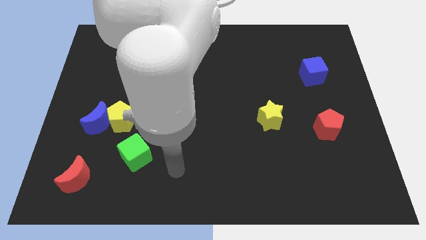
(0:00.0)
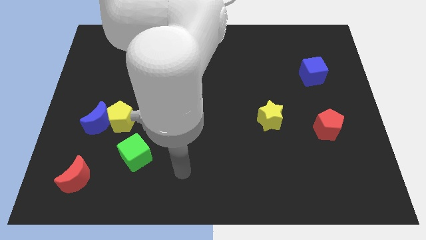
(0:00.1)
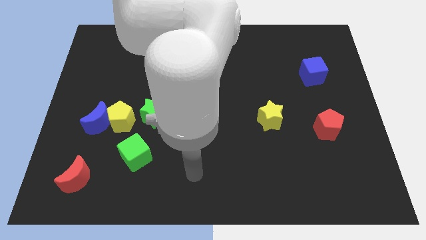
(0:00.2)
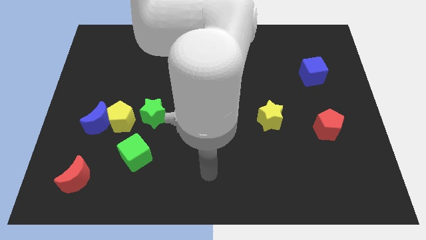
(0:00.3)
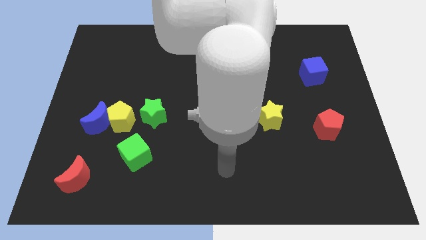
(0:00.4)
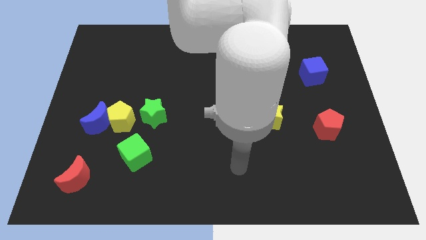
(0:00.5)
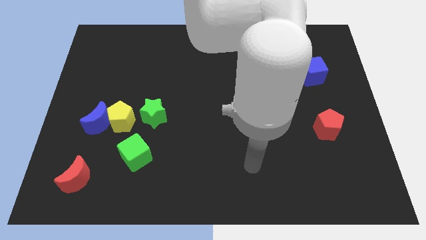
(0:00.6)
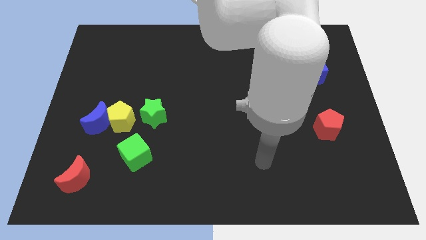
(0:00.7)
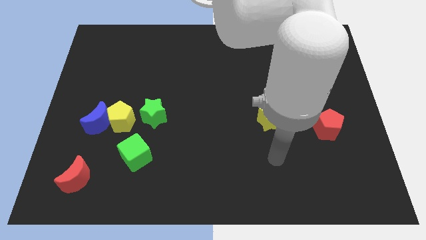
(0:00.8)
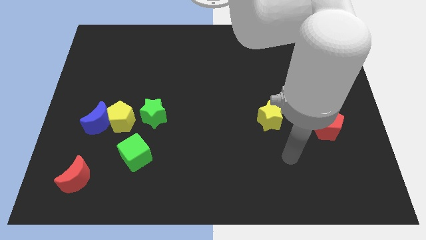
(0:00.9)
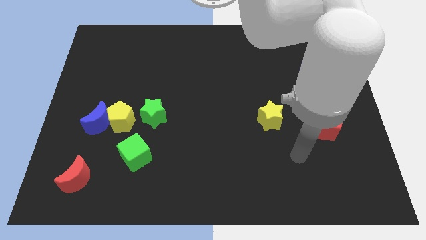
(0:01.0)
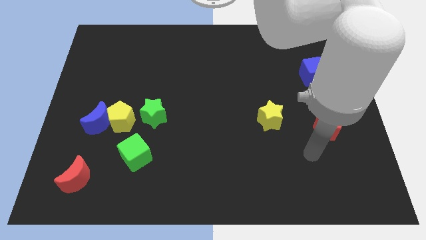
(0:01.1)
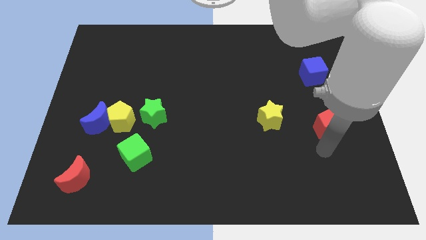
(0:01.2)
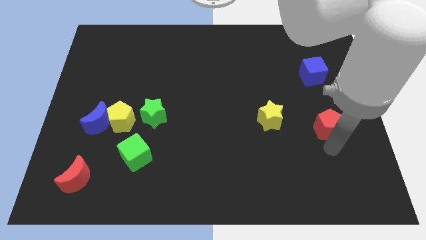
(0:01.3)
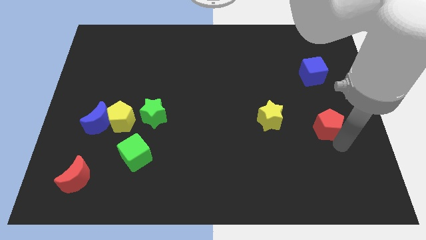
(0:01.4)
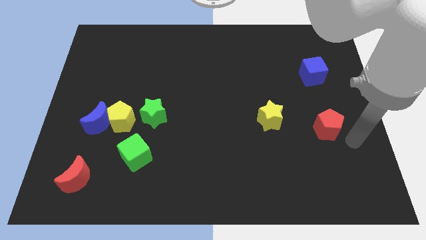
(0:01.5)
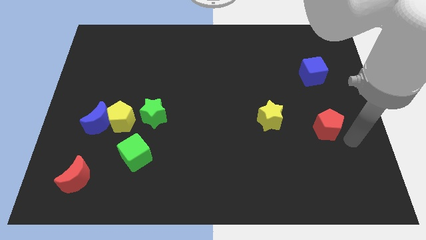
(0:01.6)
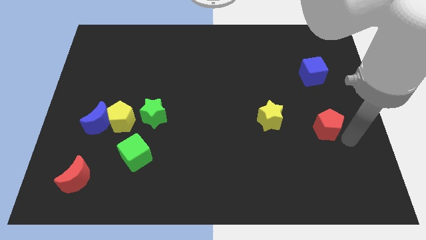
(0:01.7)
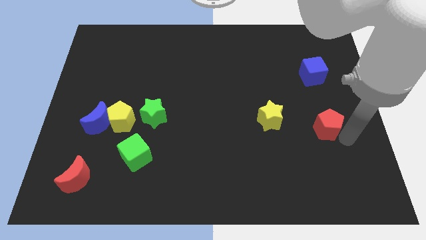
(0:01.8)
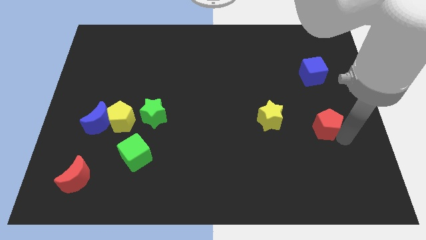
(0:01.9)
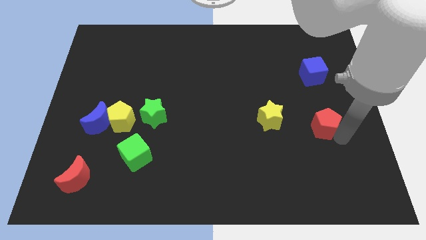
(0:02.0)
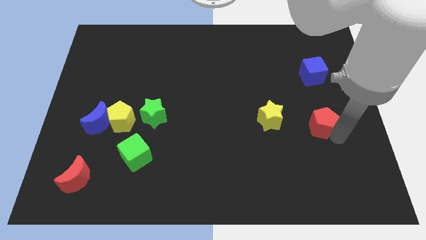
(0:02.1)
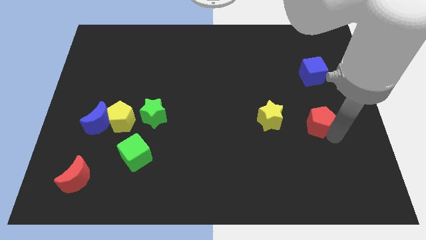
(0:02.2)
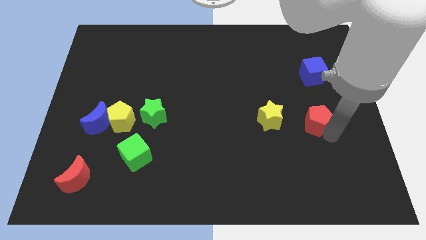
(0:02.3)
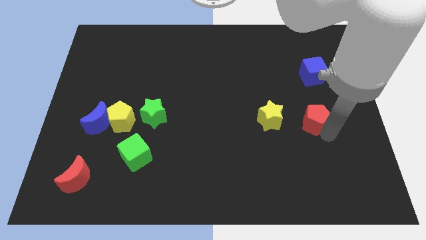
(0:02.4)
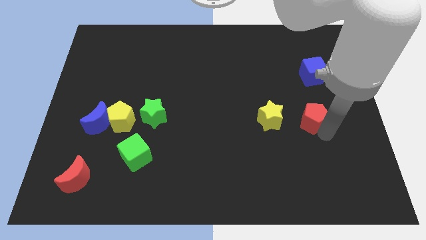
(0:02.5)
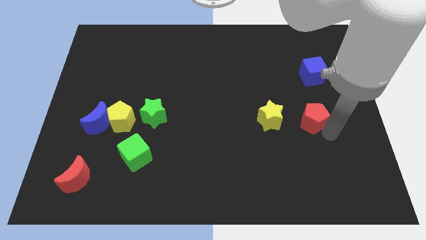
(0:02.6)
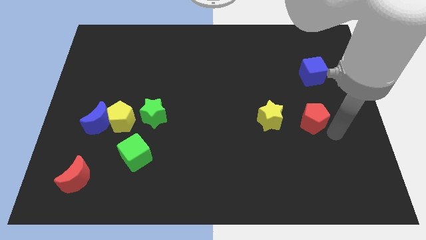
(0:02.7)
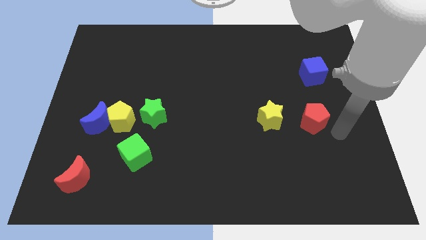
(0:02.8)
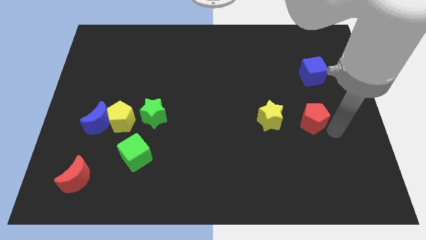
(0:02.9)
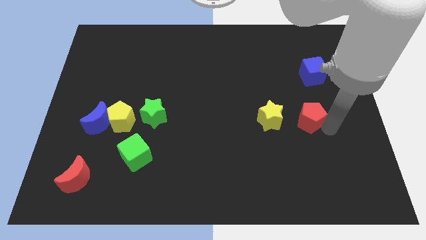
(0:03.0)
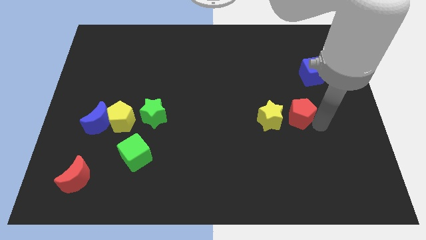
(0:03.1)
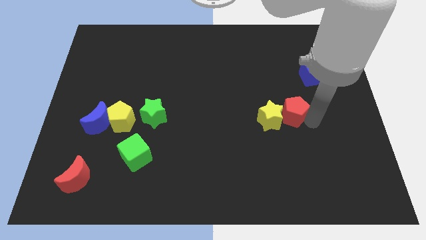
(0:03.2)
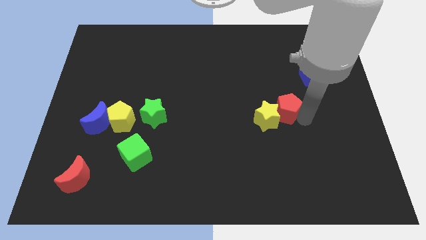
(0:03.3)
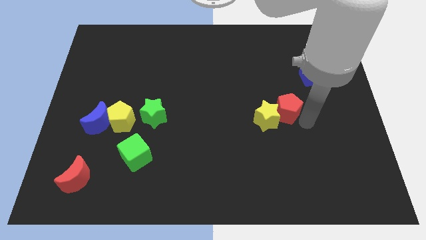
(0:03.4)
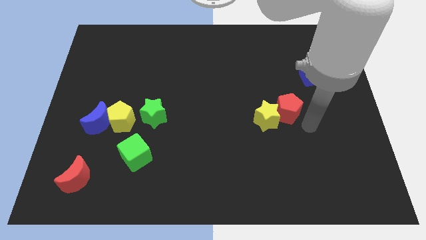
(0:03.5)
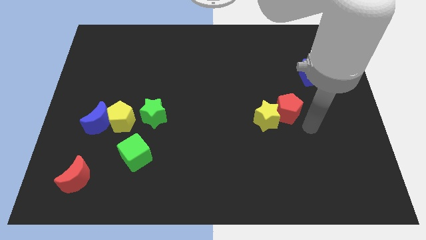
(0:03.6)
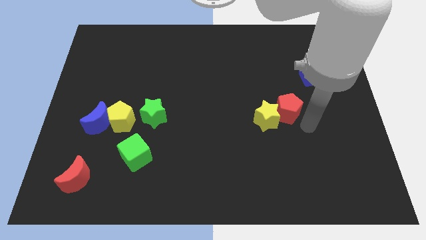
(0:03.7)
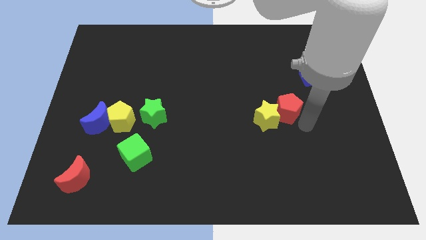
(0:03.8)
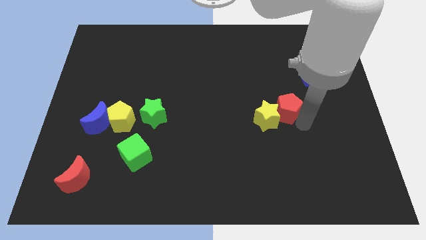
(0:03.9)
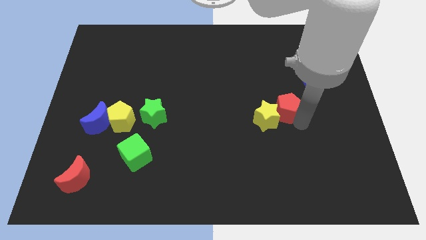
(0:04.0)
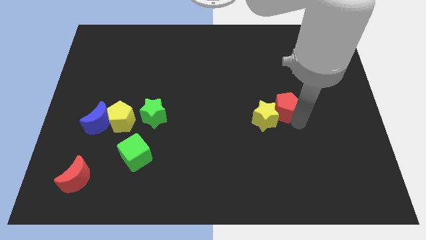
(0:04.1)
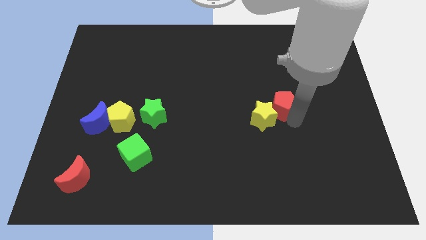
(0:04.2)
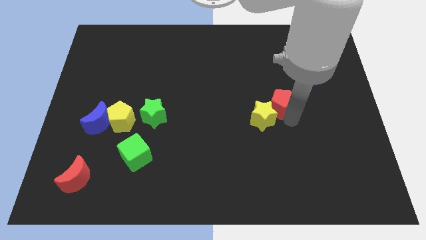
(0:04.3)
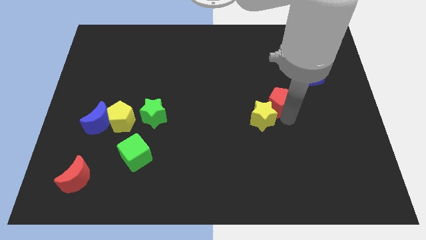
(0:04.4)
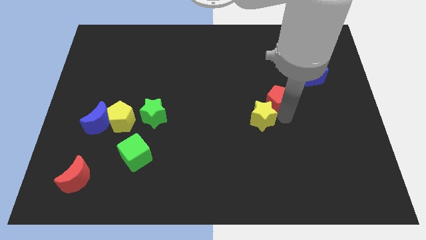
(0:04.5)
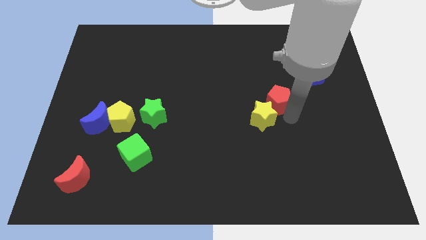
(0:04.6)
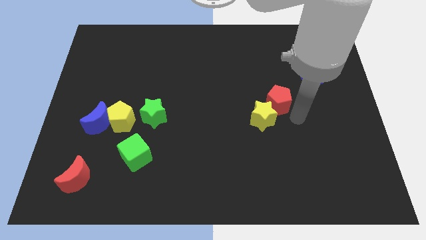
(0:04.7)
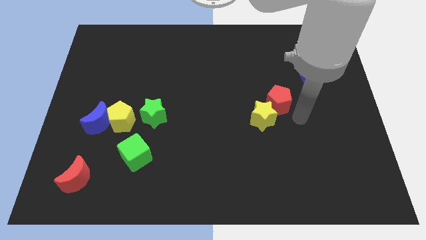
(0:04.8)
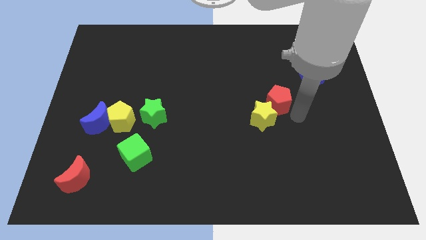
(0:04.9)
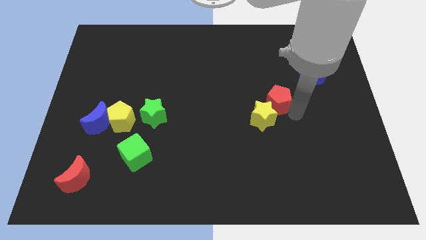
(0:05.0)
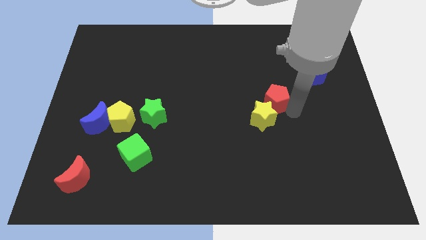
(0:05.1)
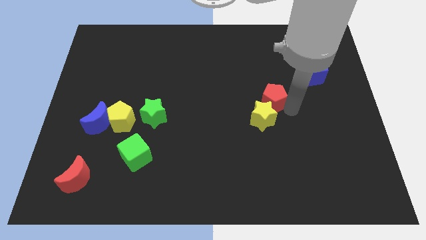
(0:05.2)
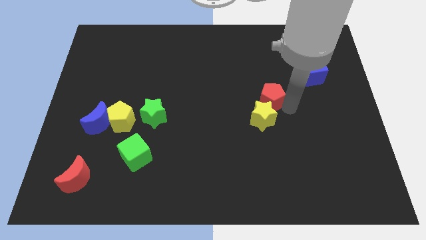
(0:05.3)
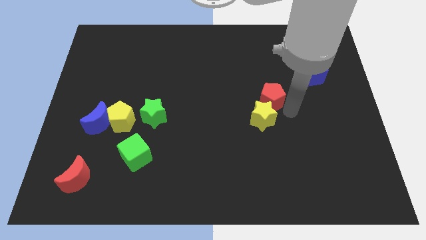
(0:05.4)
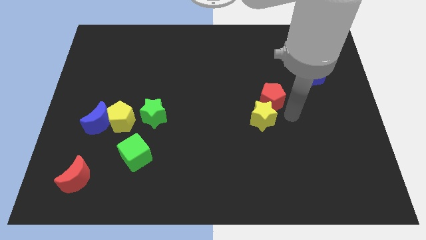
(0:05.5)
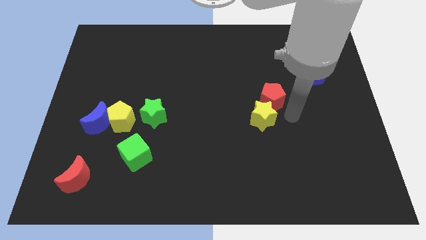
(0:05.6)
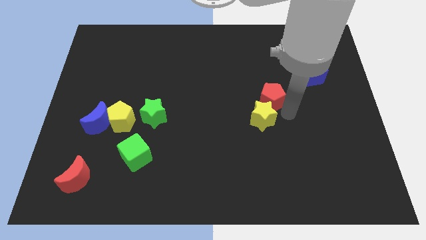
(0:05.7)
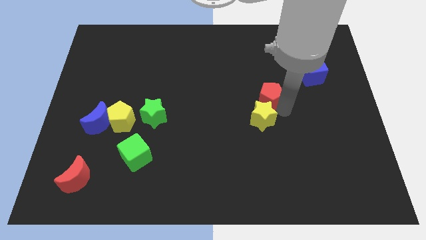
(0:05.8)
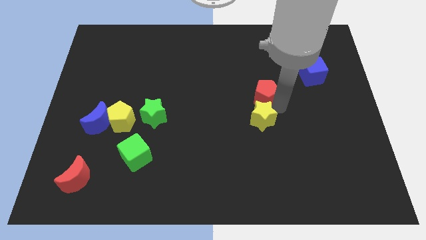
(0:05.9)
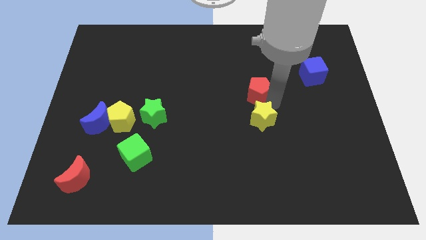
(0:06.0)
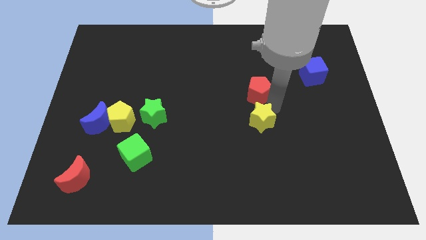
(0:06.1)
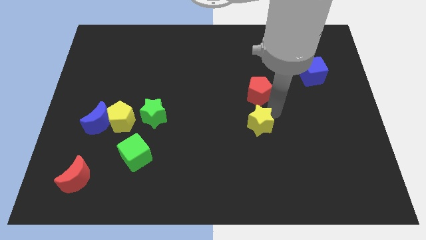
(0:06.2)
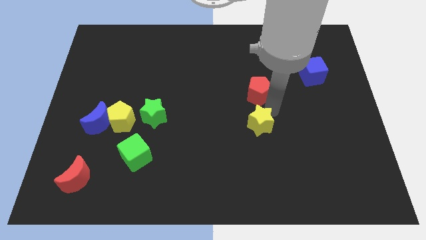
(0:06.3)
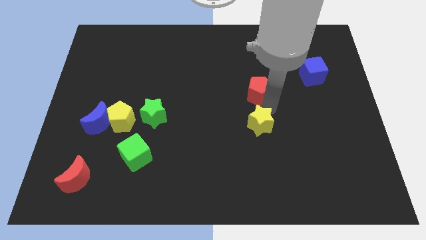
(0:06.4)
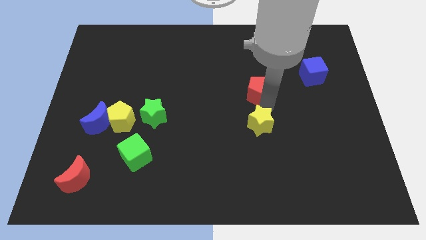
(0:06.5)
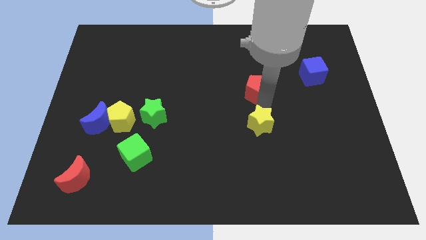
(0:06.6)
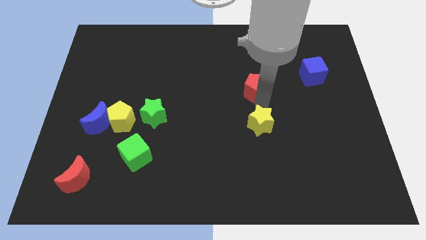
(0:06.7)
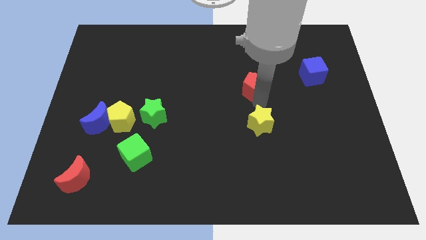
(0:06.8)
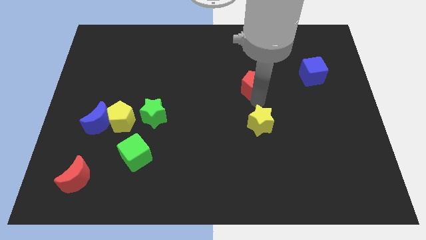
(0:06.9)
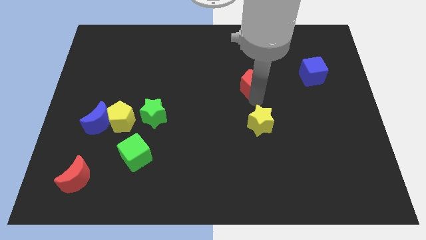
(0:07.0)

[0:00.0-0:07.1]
move the red pentagon upwards and left diagonally

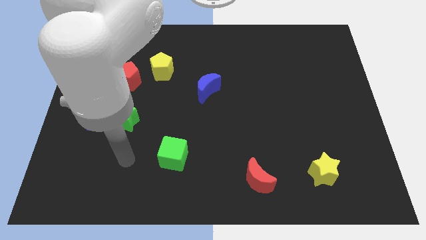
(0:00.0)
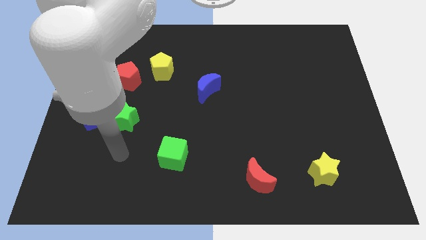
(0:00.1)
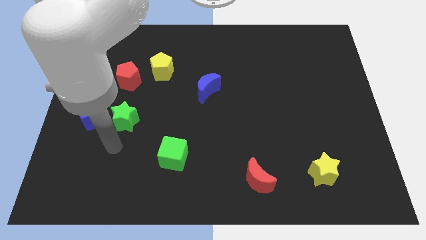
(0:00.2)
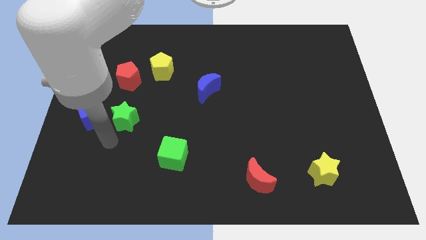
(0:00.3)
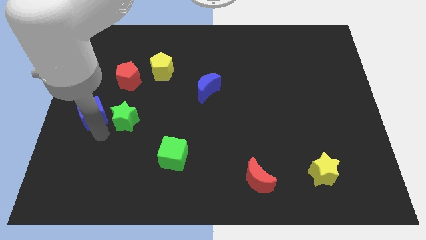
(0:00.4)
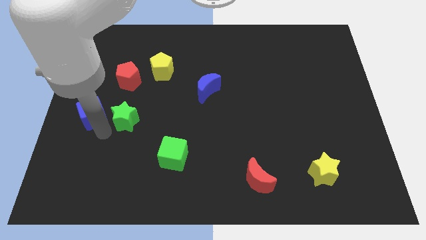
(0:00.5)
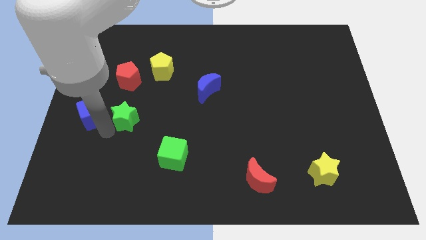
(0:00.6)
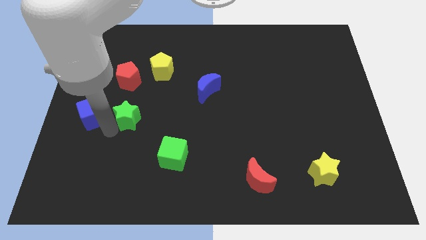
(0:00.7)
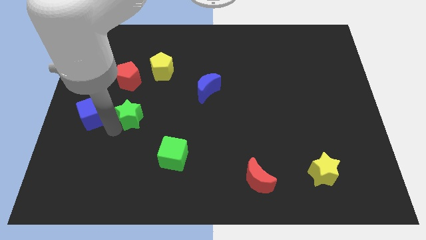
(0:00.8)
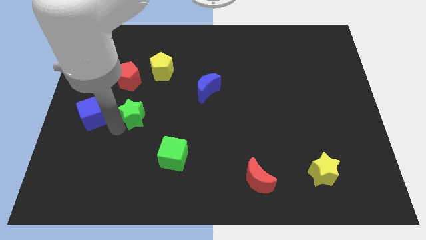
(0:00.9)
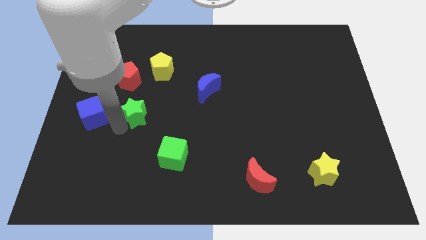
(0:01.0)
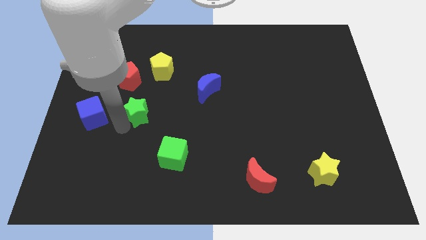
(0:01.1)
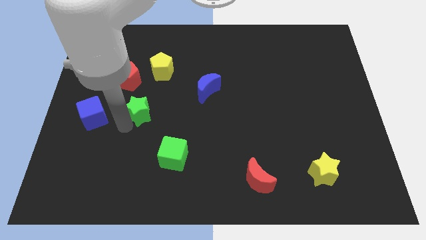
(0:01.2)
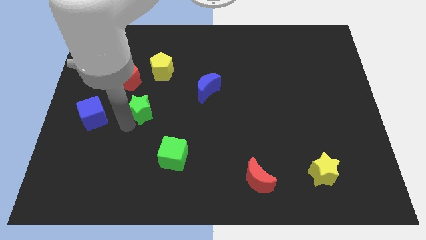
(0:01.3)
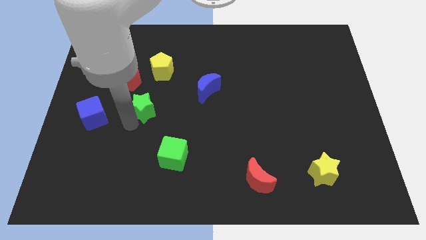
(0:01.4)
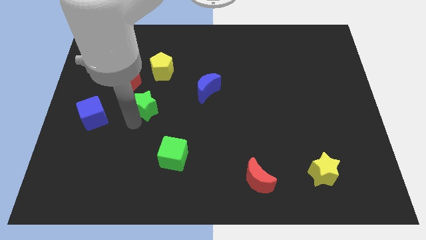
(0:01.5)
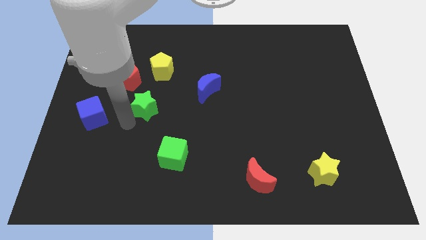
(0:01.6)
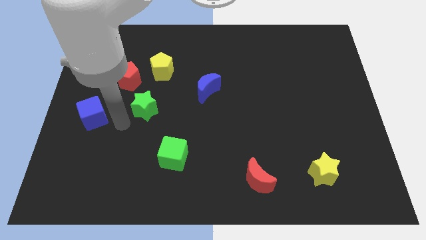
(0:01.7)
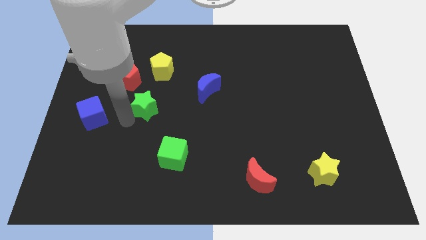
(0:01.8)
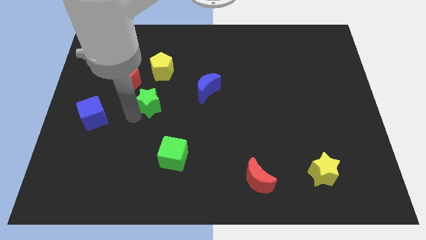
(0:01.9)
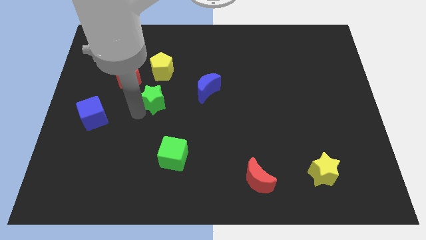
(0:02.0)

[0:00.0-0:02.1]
push the green star upwards and to the right slightly
